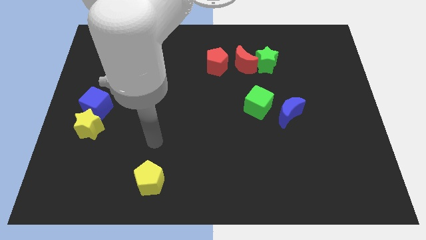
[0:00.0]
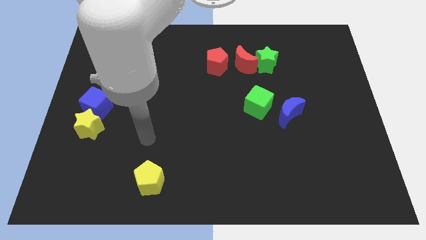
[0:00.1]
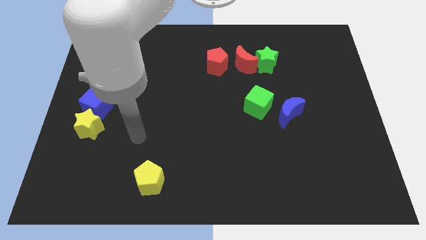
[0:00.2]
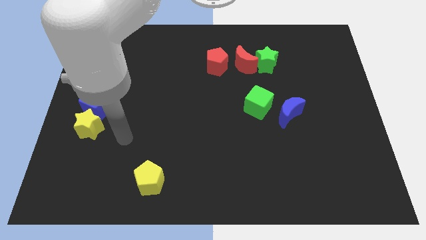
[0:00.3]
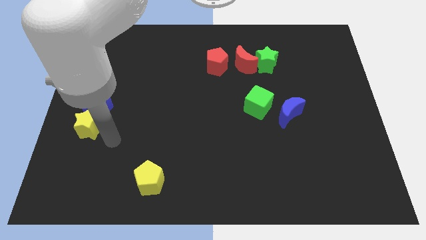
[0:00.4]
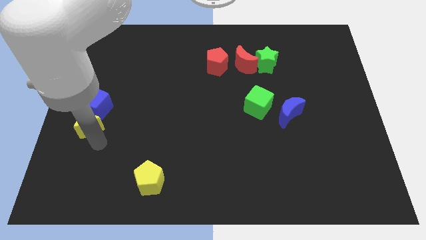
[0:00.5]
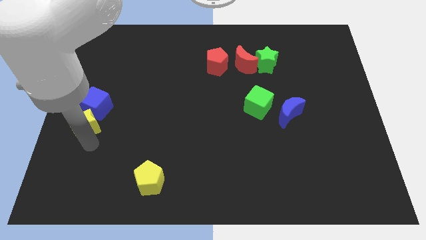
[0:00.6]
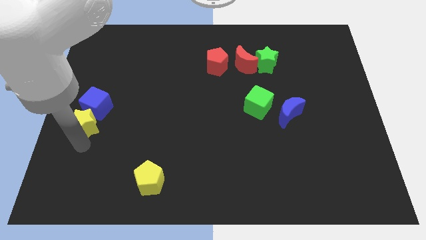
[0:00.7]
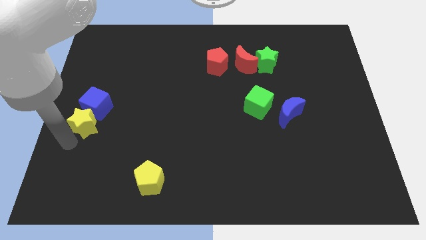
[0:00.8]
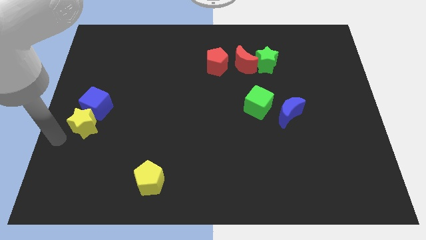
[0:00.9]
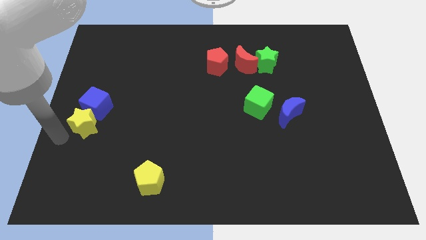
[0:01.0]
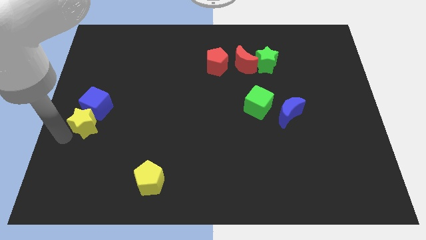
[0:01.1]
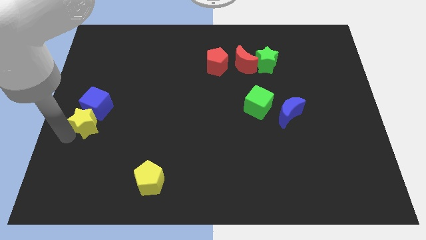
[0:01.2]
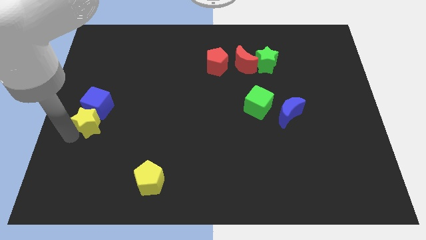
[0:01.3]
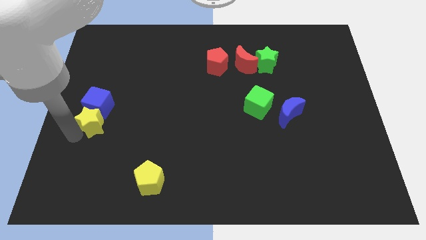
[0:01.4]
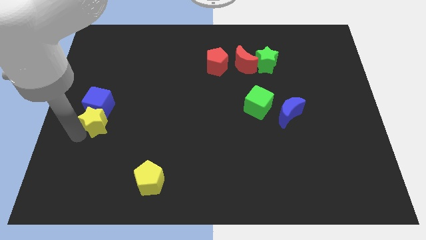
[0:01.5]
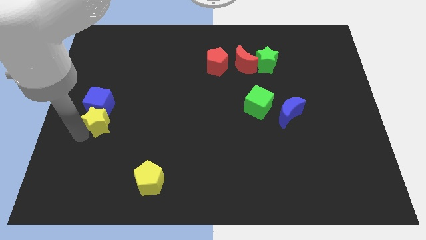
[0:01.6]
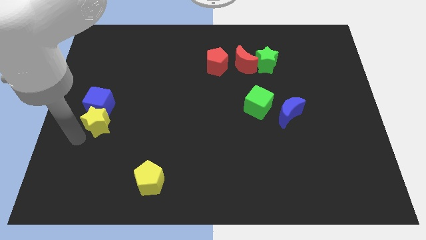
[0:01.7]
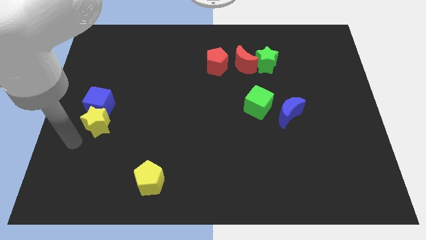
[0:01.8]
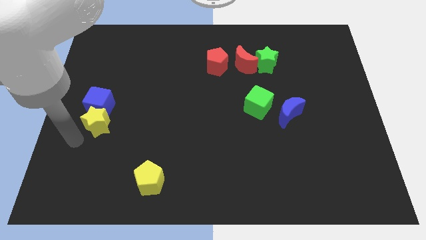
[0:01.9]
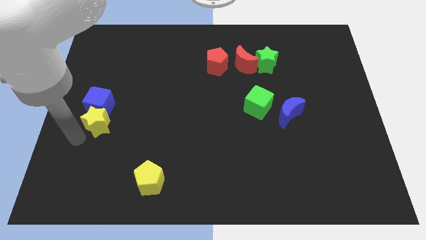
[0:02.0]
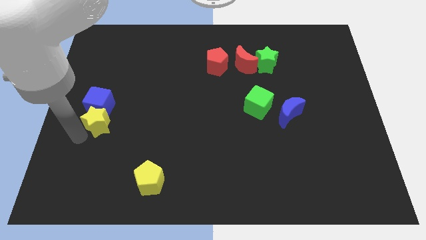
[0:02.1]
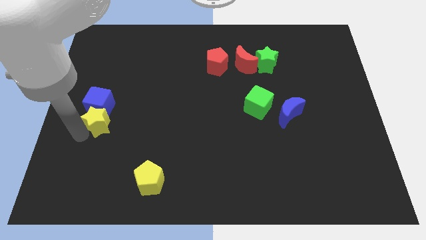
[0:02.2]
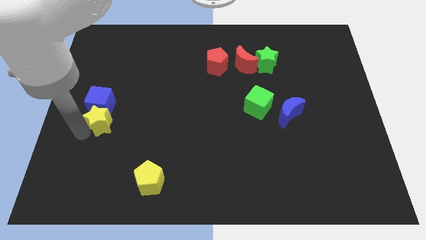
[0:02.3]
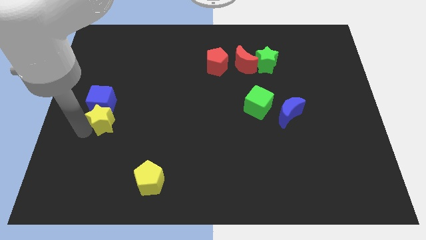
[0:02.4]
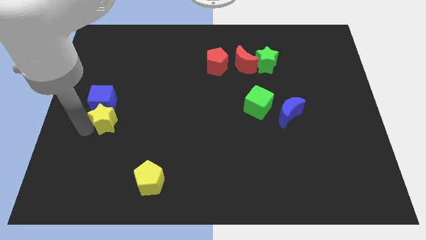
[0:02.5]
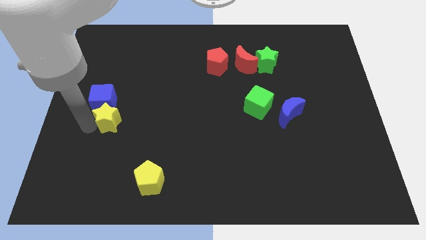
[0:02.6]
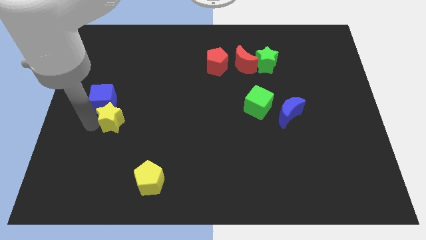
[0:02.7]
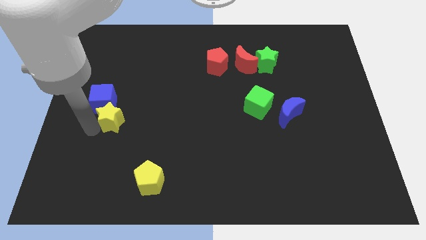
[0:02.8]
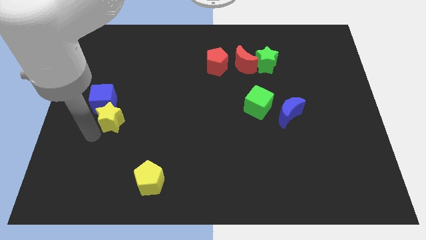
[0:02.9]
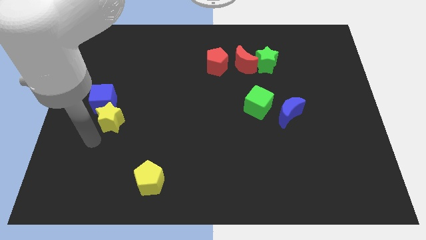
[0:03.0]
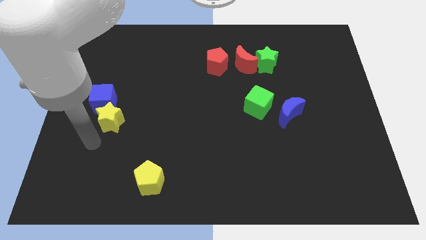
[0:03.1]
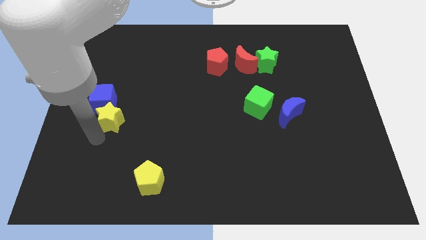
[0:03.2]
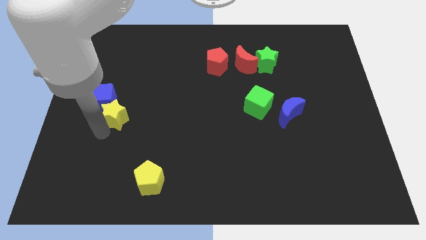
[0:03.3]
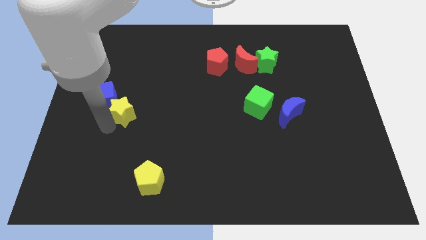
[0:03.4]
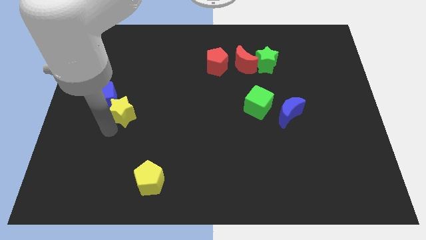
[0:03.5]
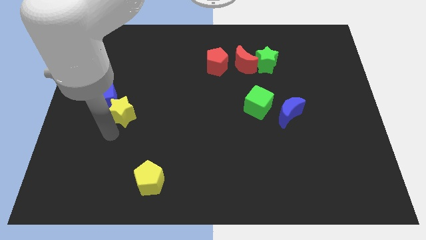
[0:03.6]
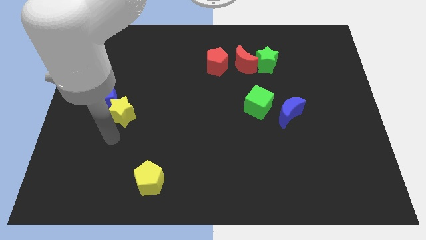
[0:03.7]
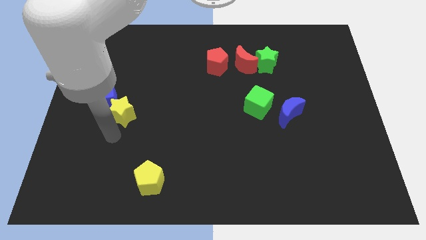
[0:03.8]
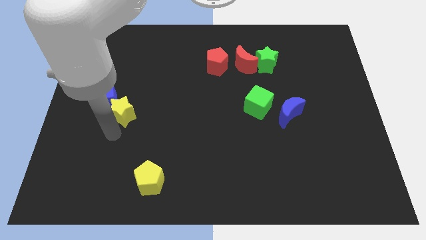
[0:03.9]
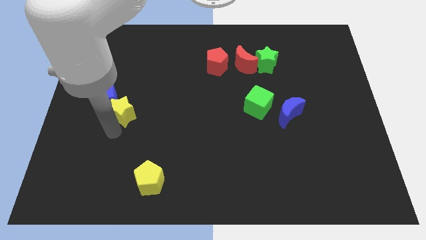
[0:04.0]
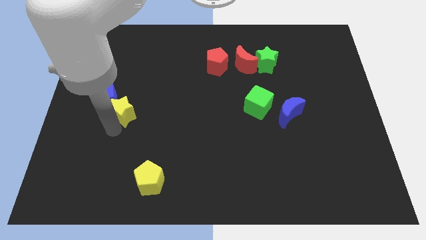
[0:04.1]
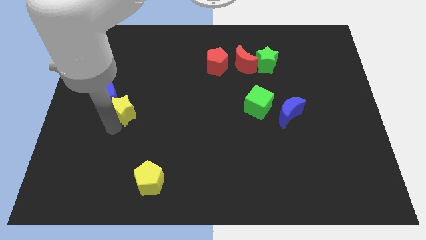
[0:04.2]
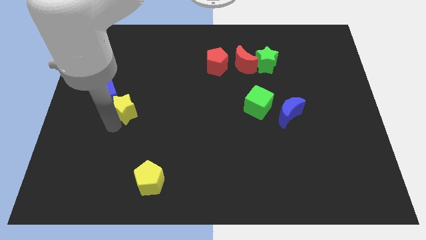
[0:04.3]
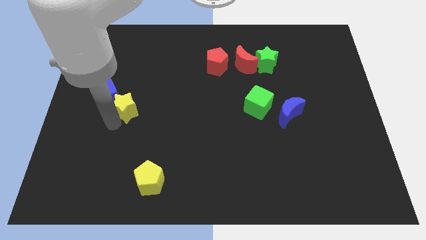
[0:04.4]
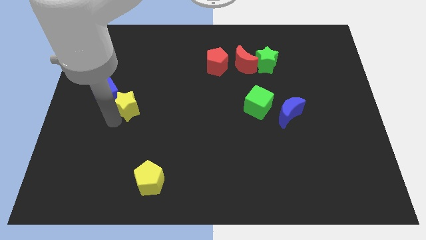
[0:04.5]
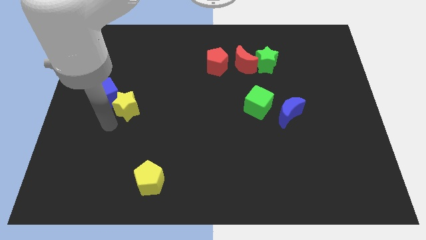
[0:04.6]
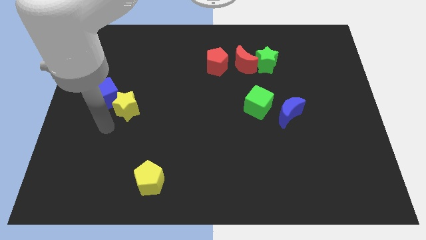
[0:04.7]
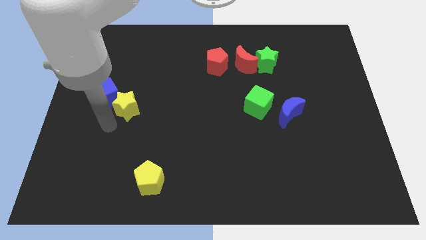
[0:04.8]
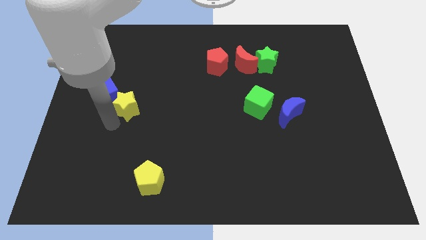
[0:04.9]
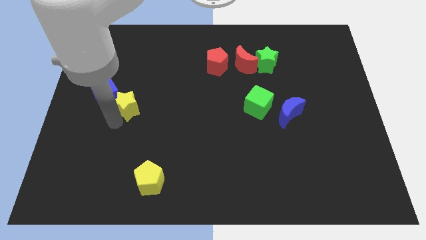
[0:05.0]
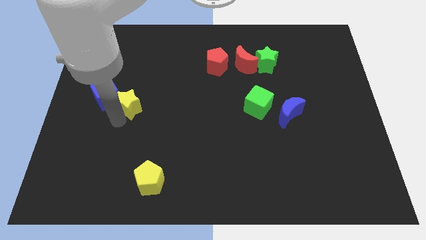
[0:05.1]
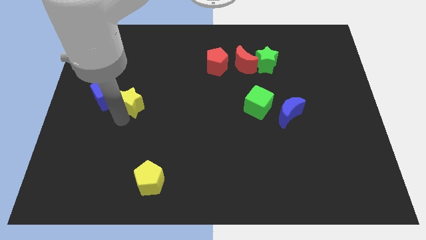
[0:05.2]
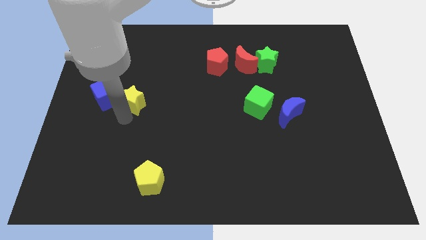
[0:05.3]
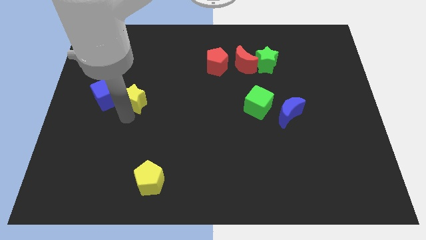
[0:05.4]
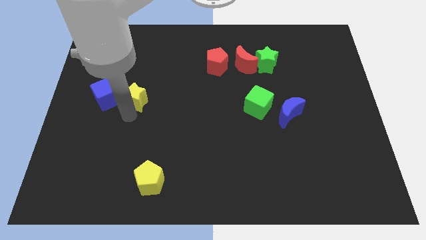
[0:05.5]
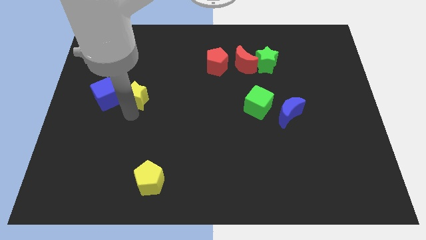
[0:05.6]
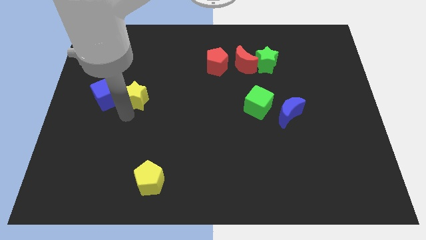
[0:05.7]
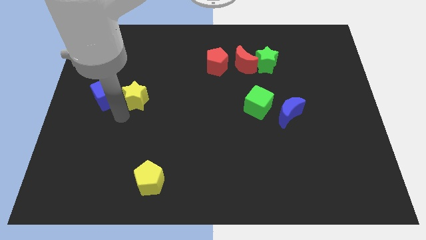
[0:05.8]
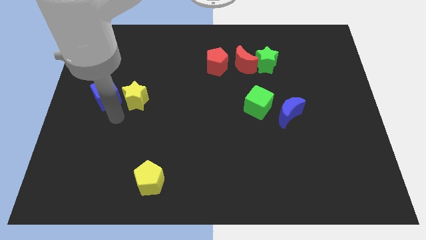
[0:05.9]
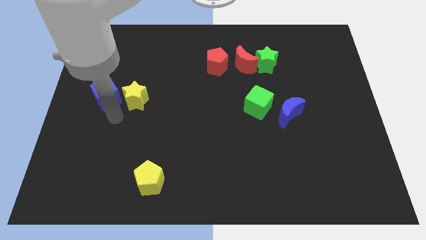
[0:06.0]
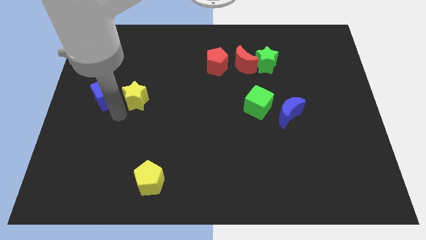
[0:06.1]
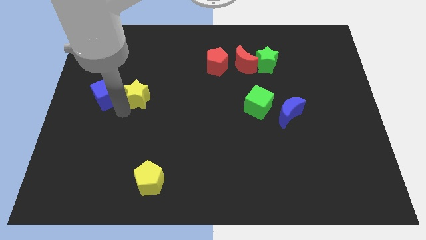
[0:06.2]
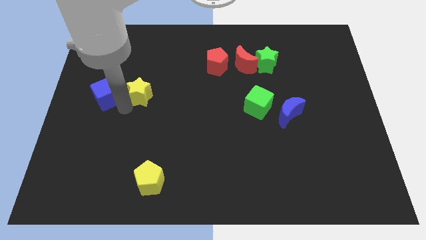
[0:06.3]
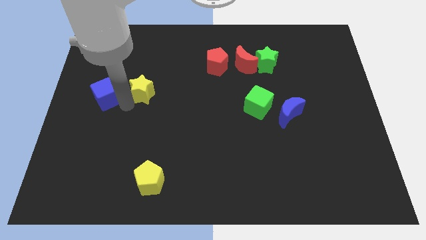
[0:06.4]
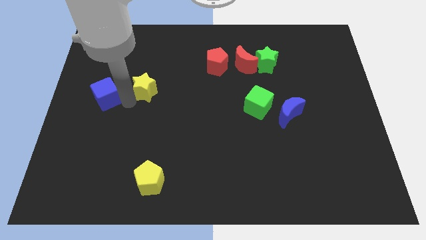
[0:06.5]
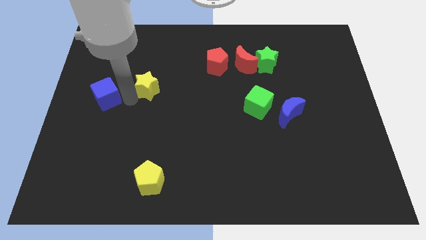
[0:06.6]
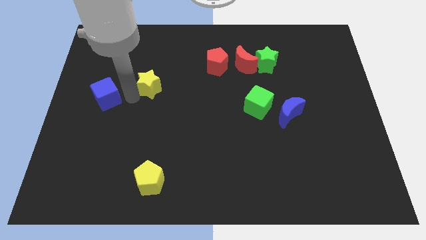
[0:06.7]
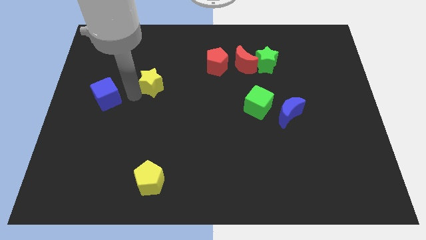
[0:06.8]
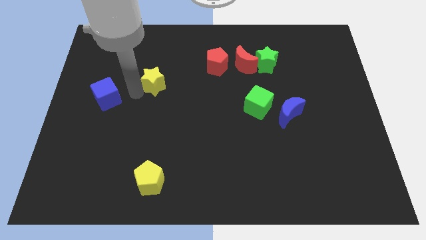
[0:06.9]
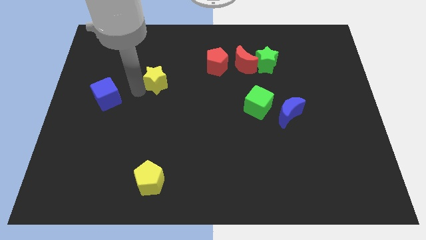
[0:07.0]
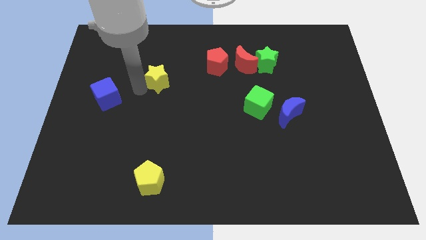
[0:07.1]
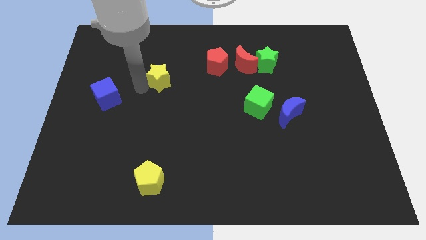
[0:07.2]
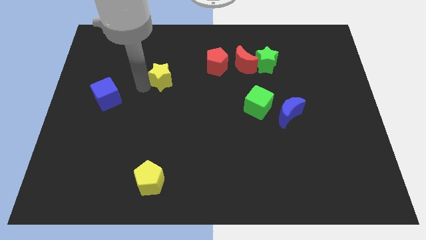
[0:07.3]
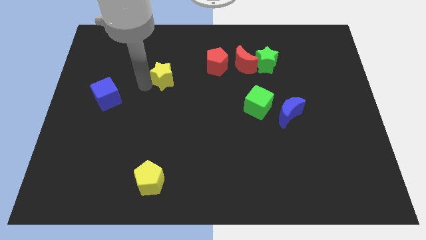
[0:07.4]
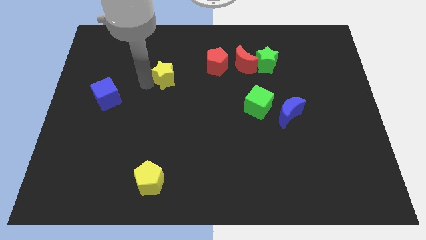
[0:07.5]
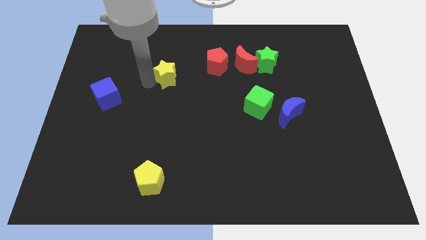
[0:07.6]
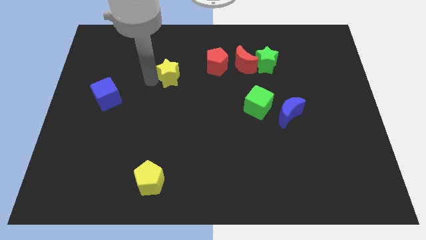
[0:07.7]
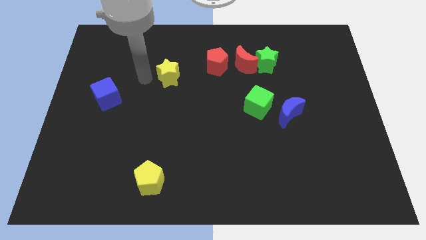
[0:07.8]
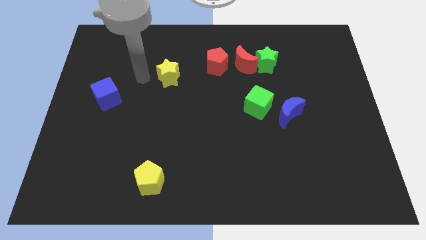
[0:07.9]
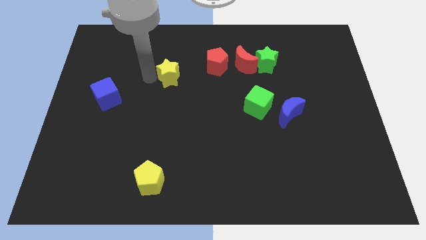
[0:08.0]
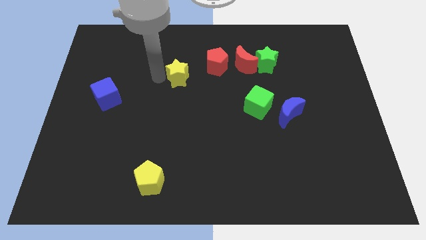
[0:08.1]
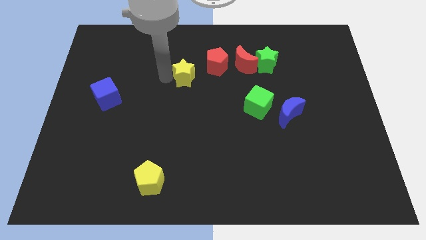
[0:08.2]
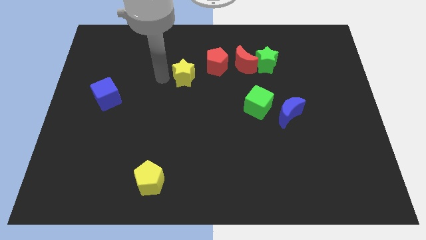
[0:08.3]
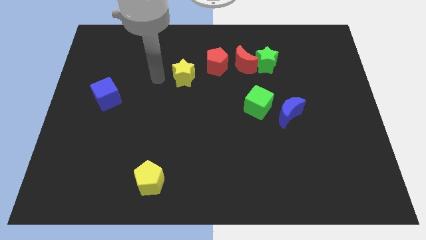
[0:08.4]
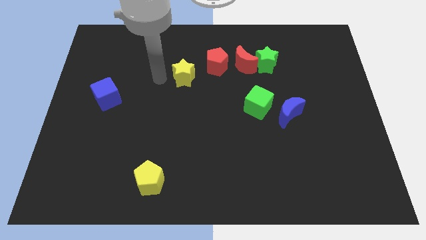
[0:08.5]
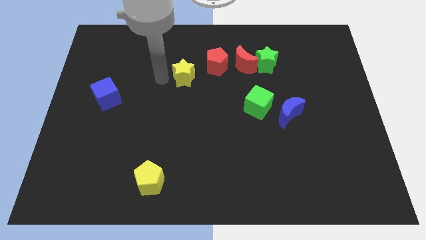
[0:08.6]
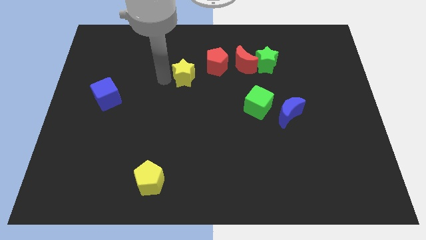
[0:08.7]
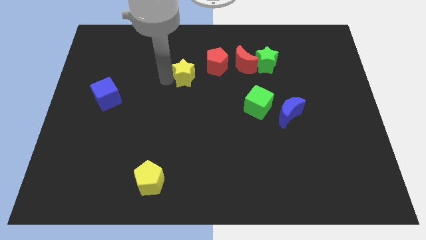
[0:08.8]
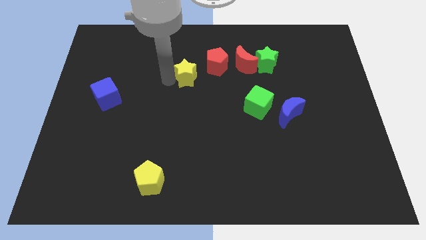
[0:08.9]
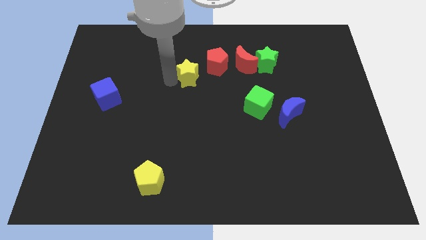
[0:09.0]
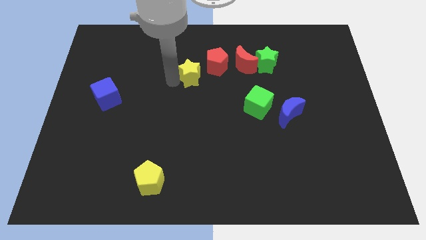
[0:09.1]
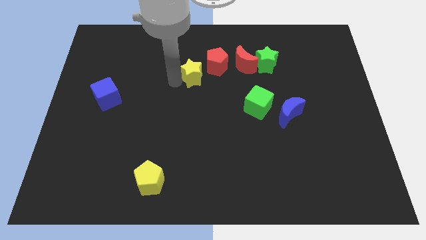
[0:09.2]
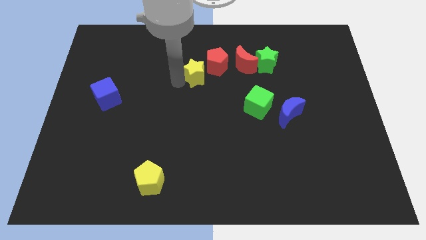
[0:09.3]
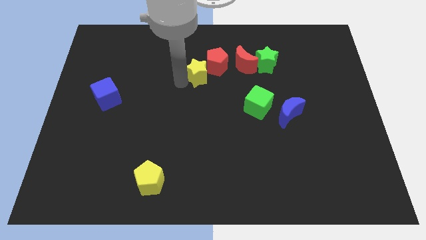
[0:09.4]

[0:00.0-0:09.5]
slide the yellow star next to the red pentagon
